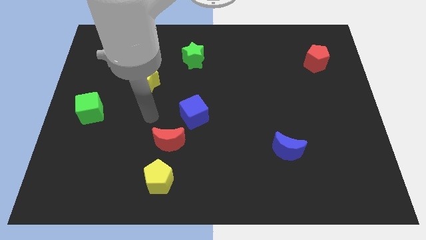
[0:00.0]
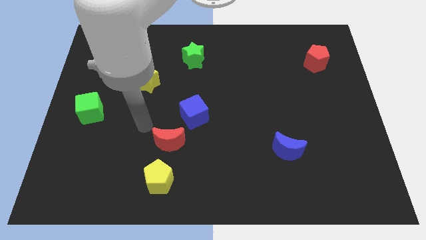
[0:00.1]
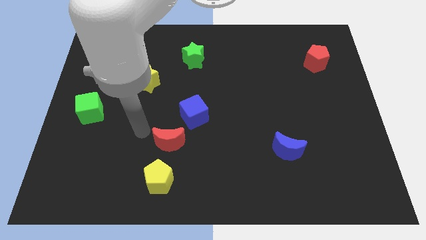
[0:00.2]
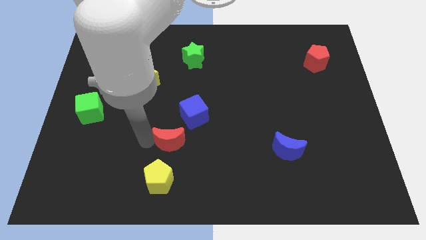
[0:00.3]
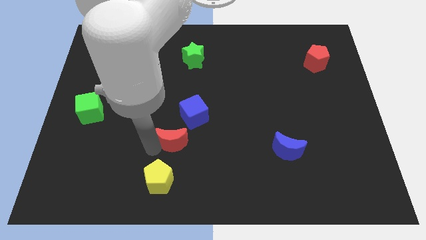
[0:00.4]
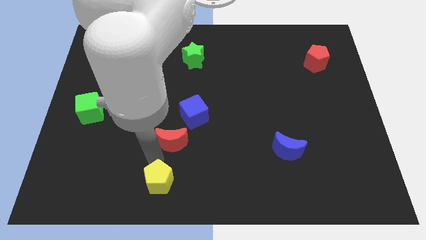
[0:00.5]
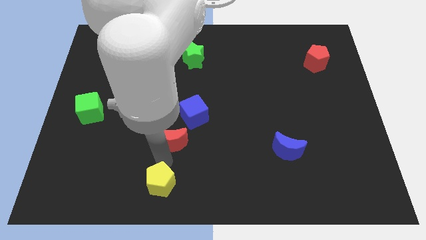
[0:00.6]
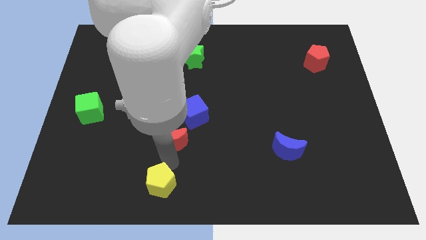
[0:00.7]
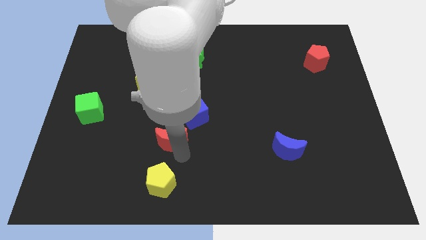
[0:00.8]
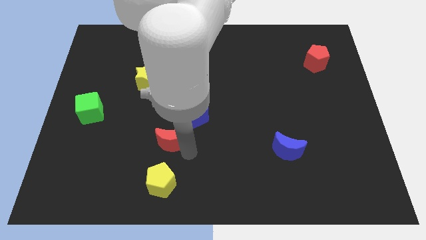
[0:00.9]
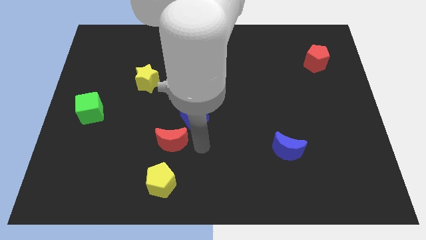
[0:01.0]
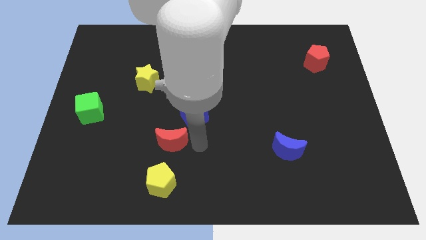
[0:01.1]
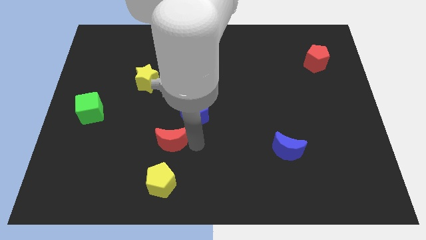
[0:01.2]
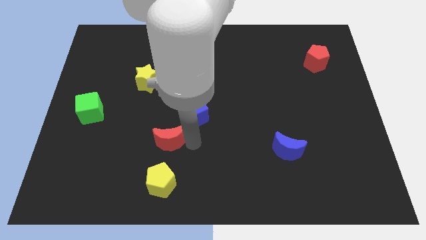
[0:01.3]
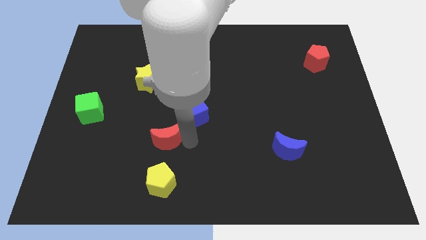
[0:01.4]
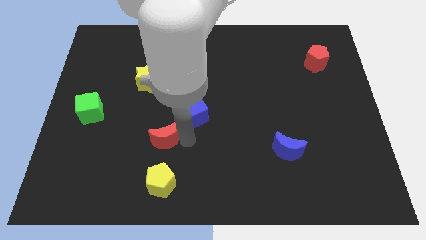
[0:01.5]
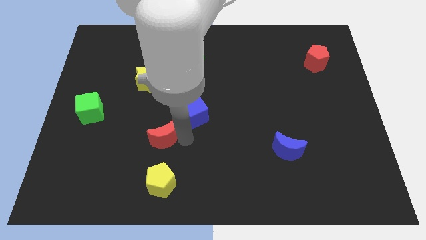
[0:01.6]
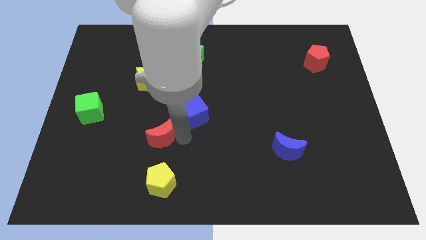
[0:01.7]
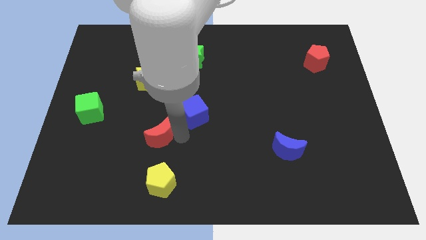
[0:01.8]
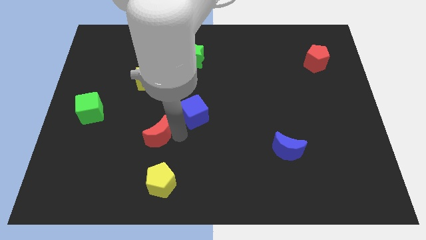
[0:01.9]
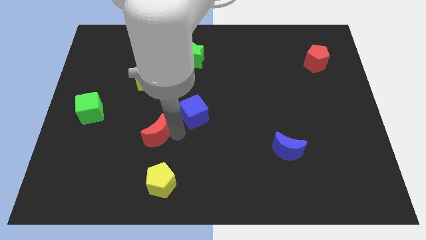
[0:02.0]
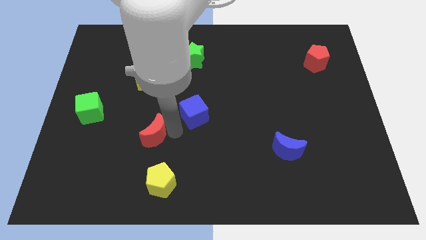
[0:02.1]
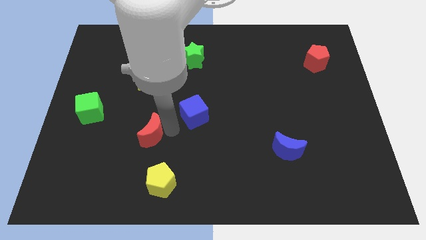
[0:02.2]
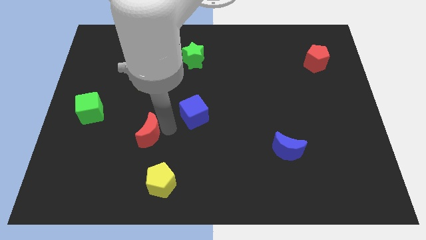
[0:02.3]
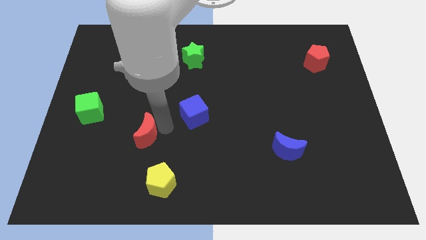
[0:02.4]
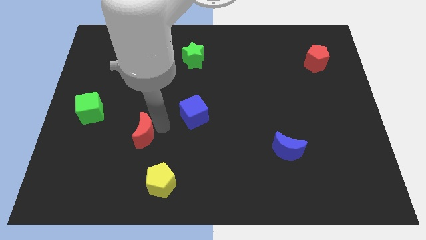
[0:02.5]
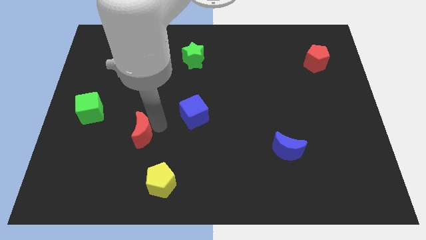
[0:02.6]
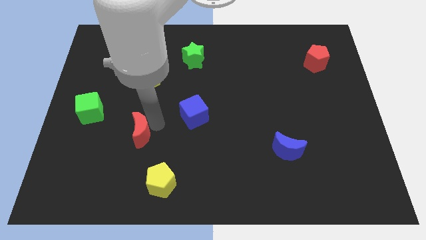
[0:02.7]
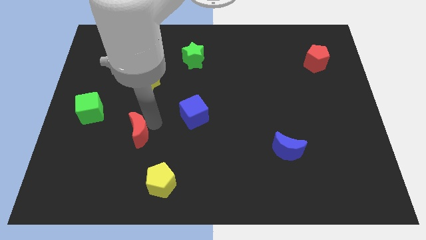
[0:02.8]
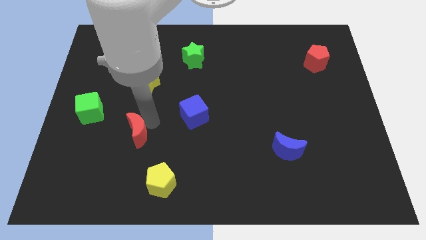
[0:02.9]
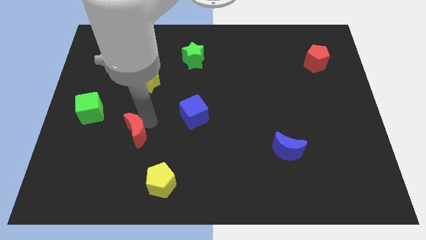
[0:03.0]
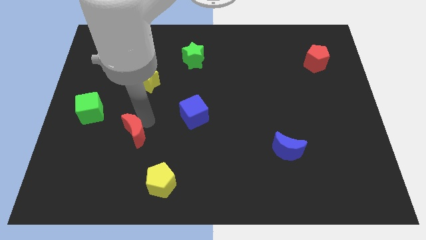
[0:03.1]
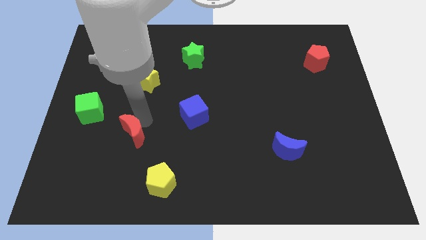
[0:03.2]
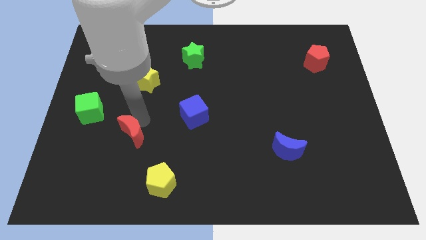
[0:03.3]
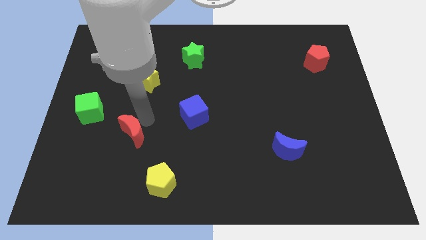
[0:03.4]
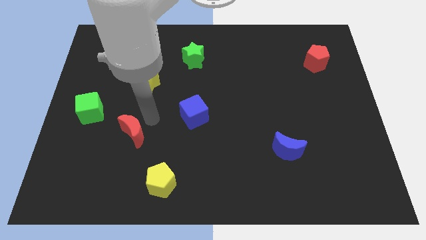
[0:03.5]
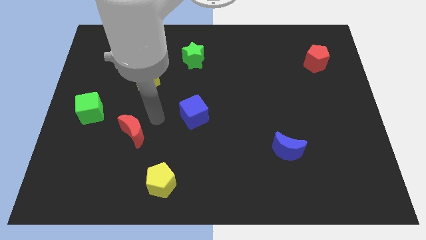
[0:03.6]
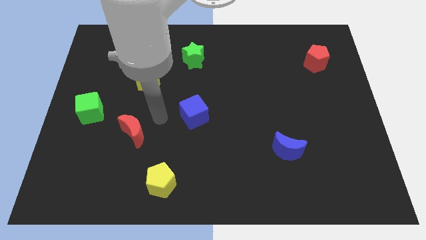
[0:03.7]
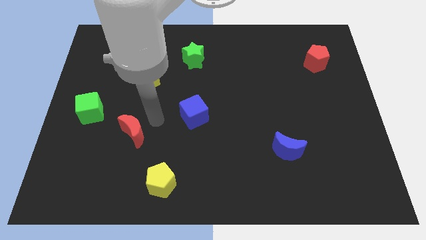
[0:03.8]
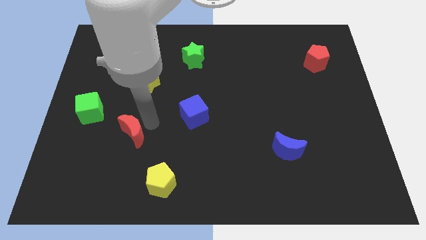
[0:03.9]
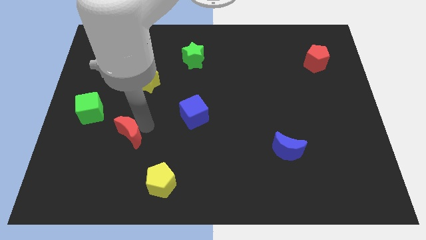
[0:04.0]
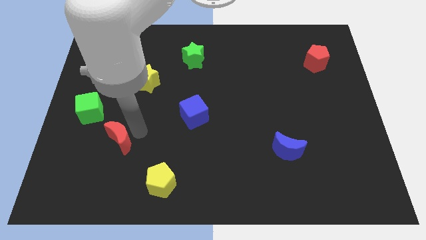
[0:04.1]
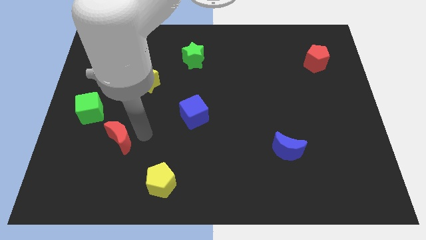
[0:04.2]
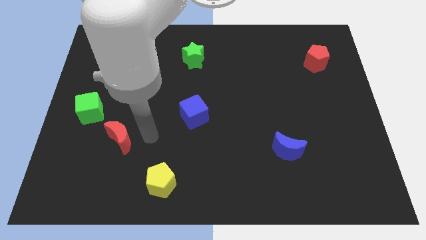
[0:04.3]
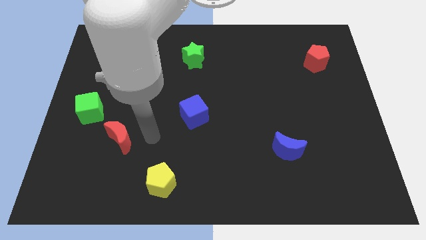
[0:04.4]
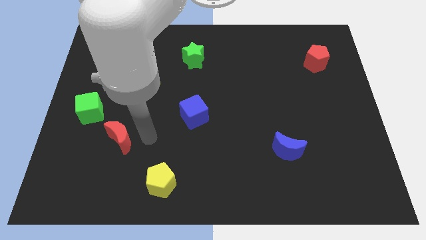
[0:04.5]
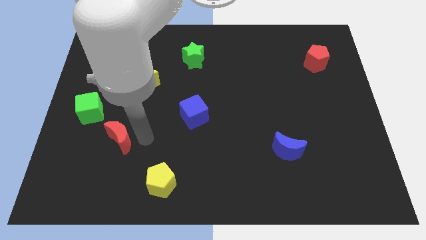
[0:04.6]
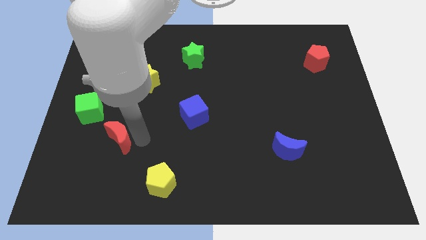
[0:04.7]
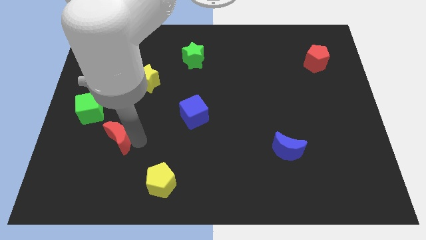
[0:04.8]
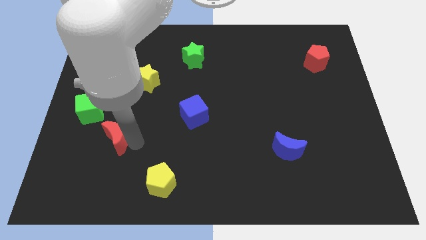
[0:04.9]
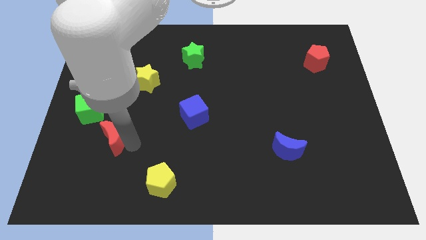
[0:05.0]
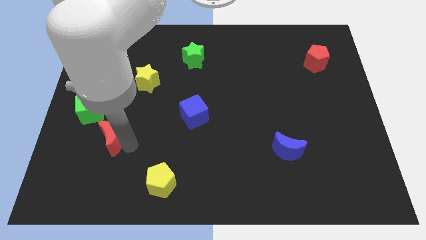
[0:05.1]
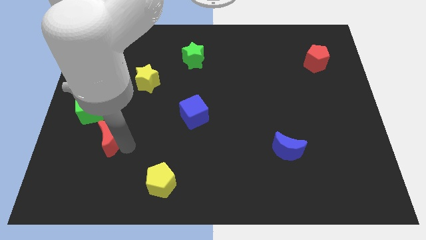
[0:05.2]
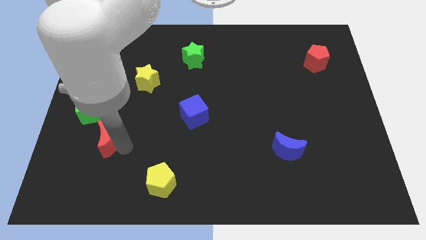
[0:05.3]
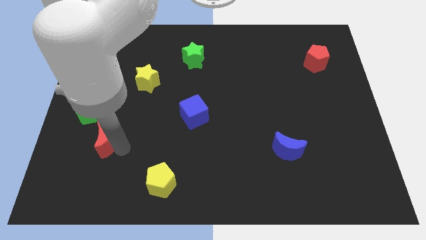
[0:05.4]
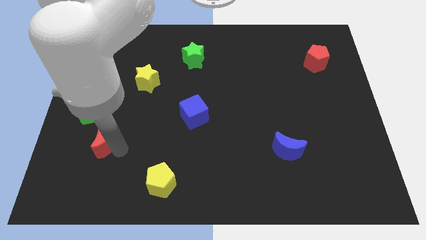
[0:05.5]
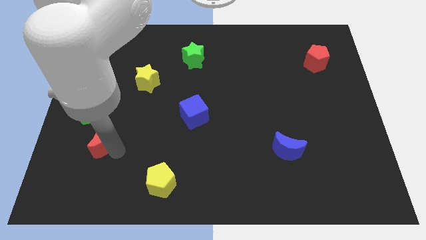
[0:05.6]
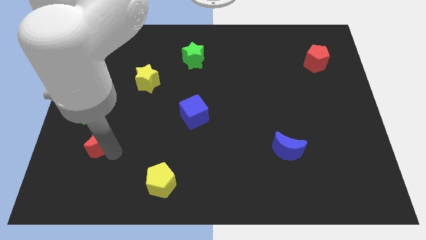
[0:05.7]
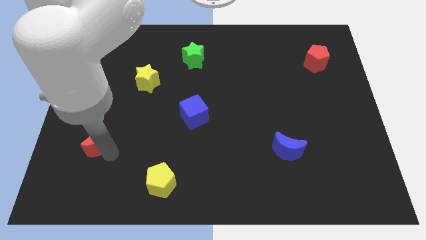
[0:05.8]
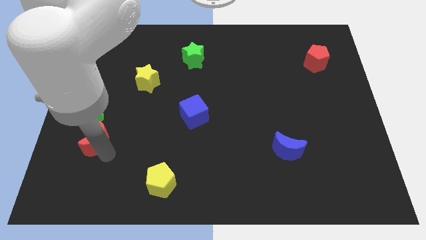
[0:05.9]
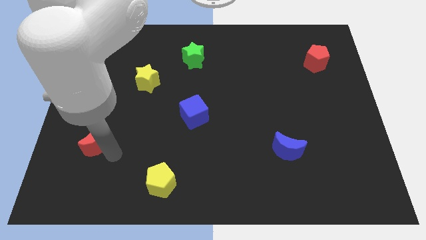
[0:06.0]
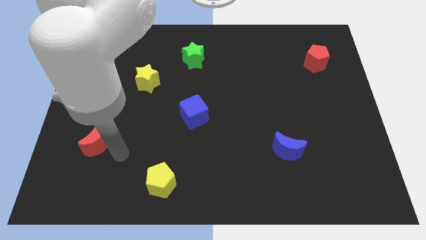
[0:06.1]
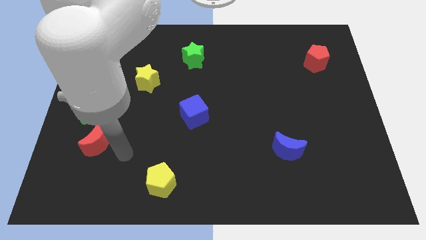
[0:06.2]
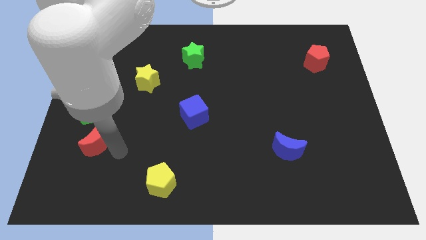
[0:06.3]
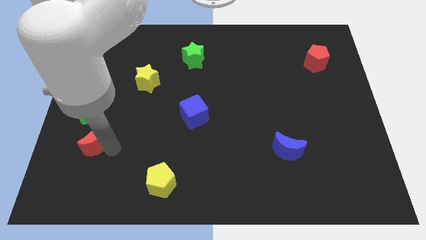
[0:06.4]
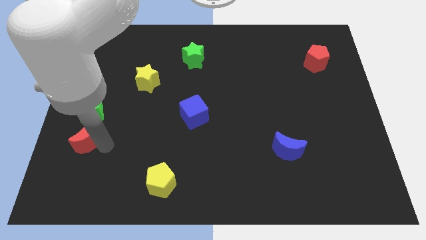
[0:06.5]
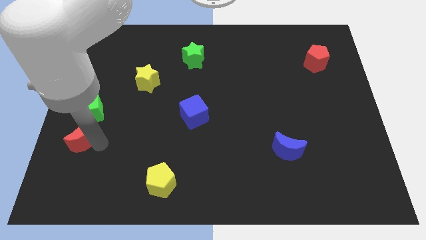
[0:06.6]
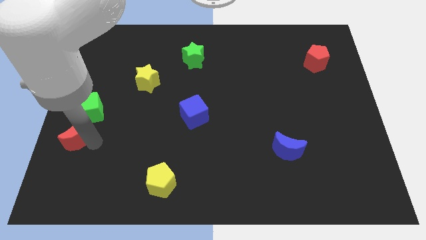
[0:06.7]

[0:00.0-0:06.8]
slide the red moon to the center left
